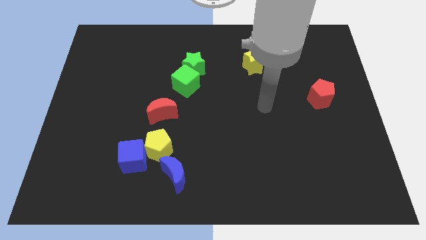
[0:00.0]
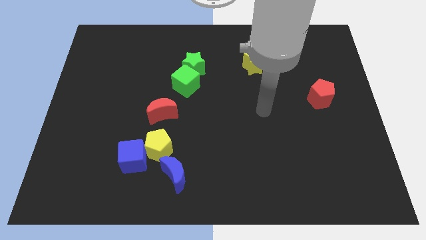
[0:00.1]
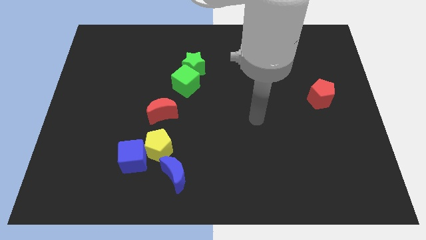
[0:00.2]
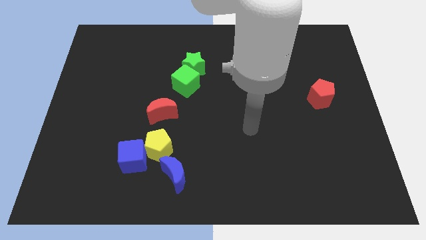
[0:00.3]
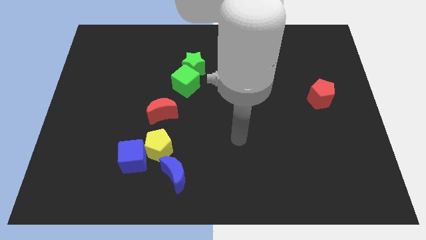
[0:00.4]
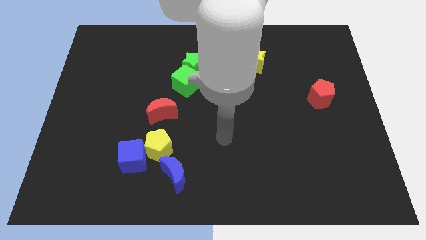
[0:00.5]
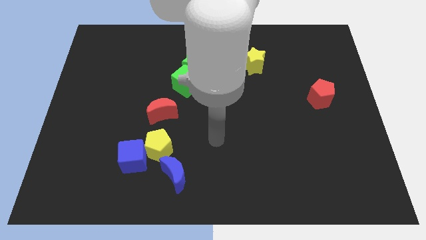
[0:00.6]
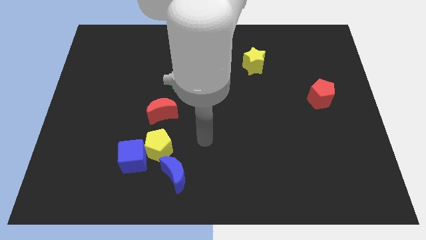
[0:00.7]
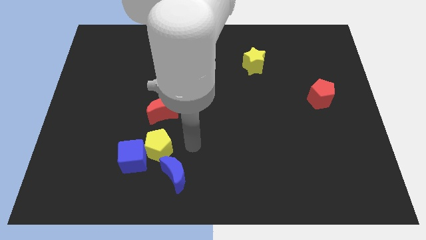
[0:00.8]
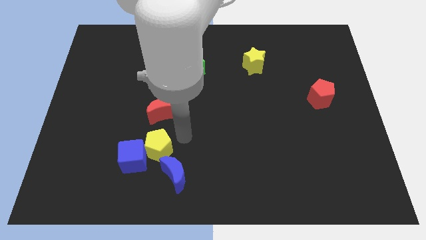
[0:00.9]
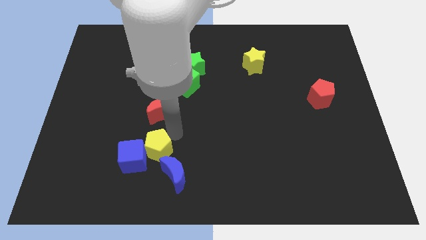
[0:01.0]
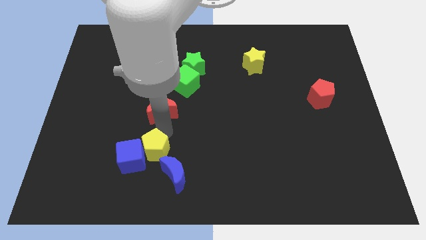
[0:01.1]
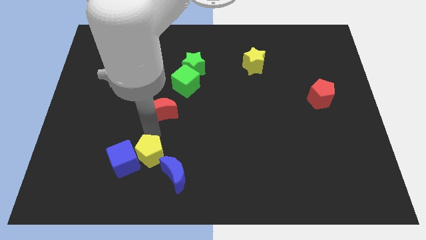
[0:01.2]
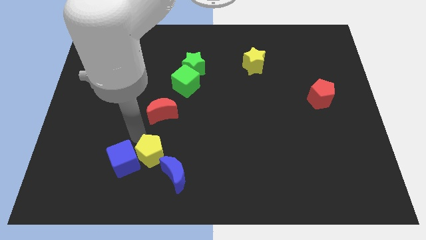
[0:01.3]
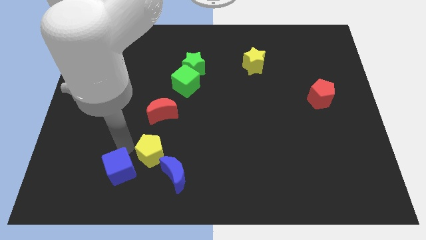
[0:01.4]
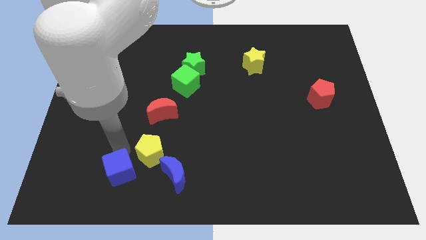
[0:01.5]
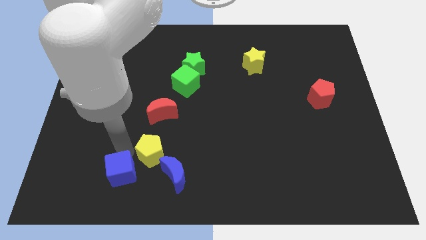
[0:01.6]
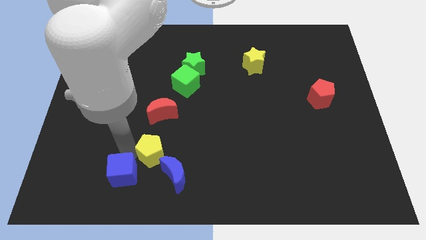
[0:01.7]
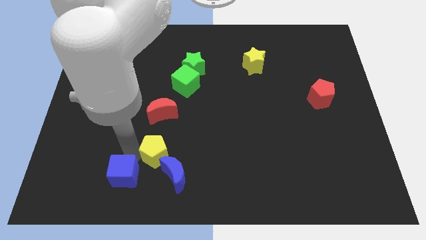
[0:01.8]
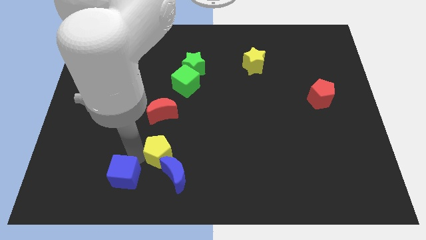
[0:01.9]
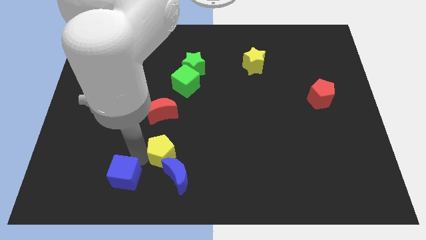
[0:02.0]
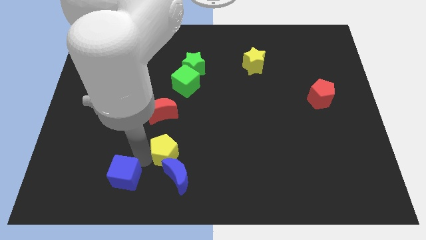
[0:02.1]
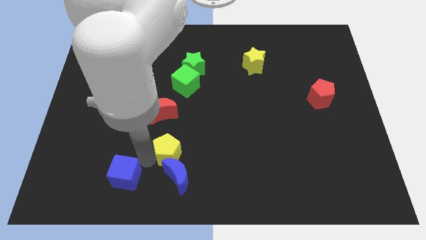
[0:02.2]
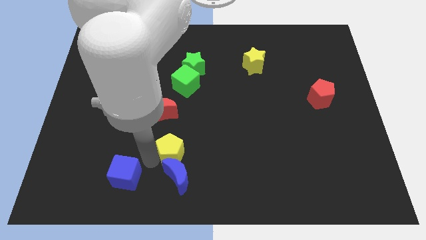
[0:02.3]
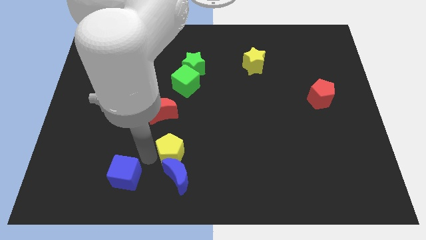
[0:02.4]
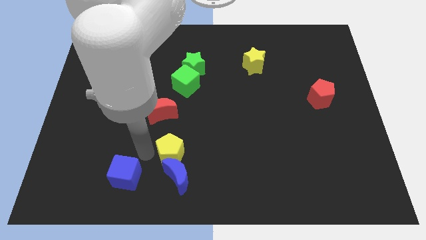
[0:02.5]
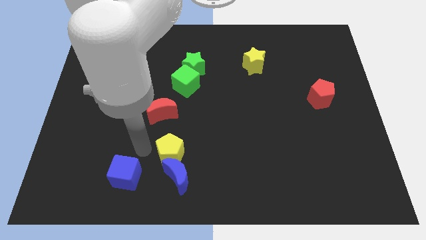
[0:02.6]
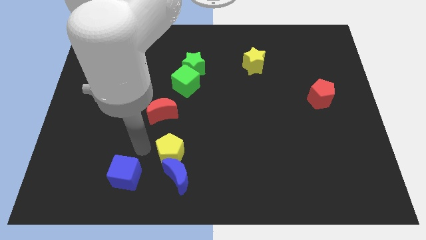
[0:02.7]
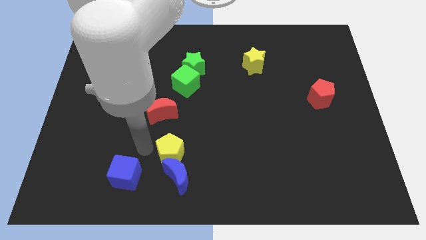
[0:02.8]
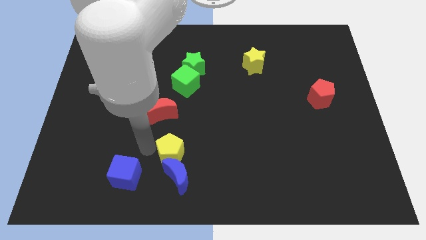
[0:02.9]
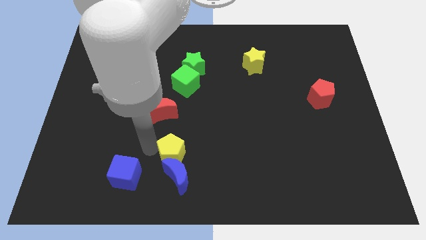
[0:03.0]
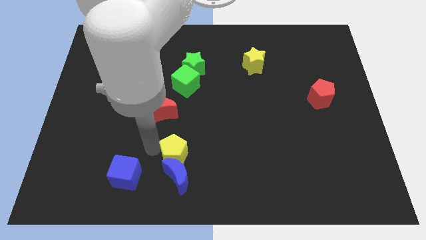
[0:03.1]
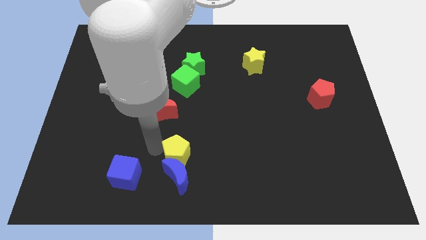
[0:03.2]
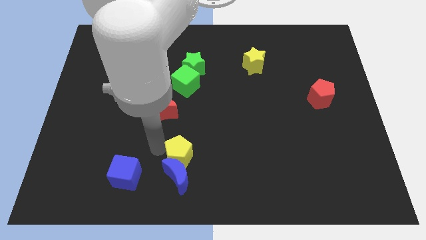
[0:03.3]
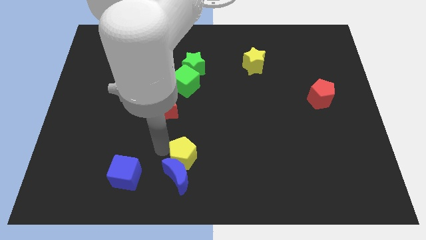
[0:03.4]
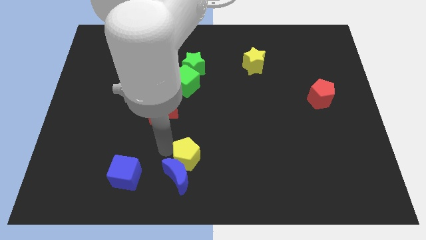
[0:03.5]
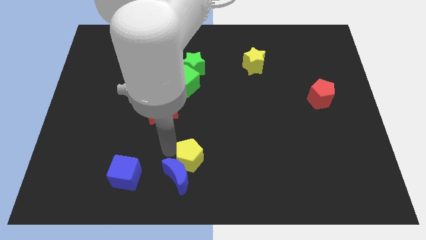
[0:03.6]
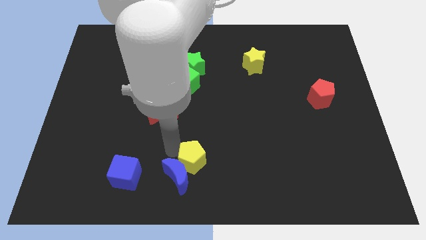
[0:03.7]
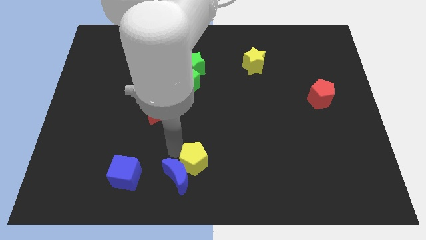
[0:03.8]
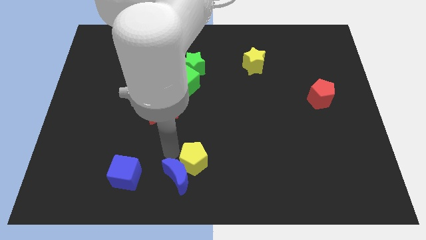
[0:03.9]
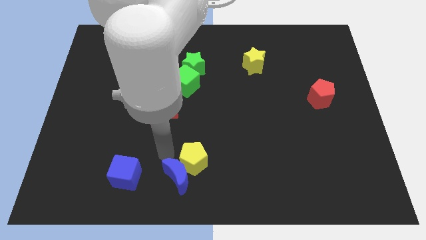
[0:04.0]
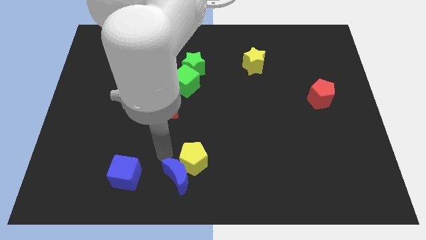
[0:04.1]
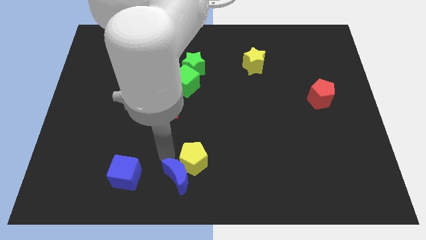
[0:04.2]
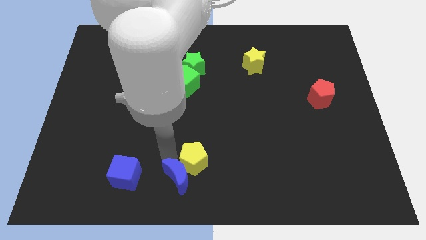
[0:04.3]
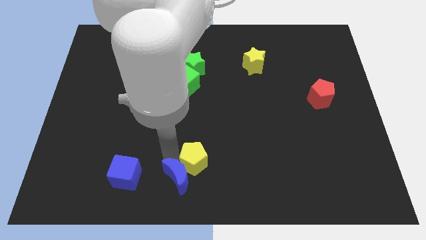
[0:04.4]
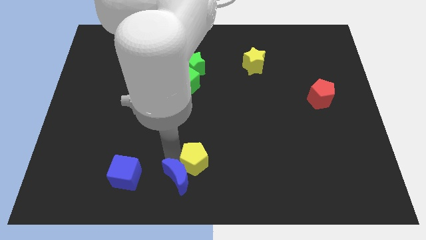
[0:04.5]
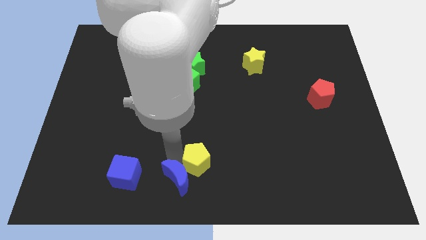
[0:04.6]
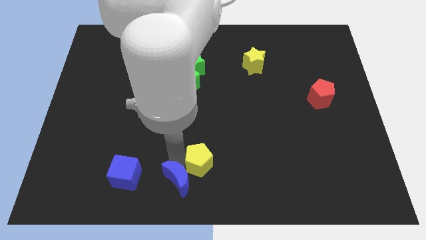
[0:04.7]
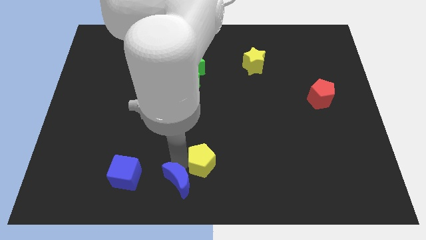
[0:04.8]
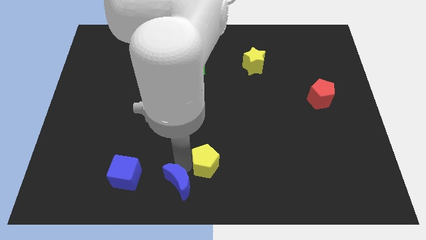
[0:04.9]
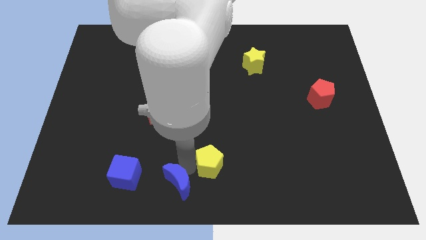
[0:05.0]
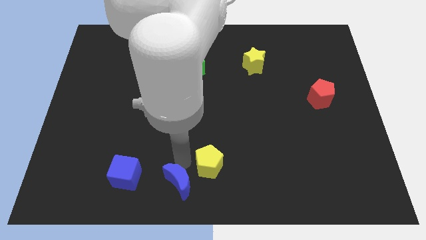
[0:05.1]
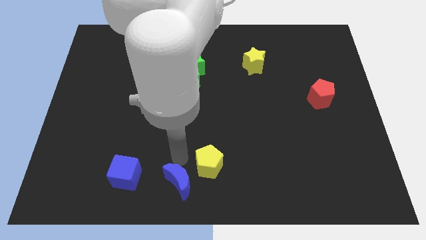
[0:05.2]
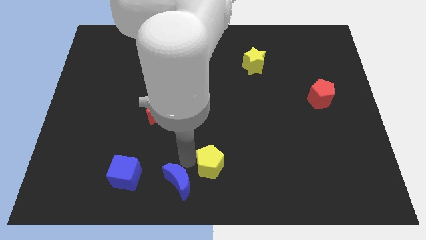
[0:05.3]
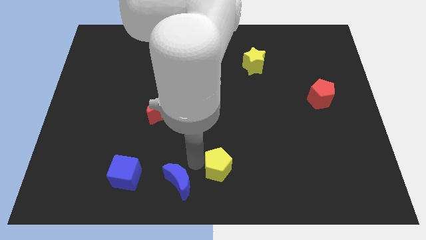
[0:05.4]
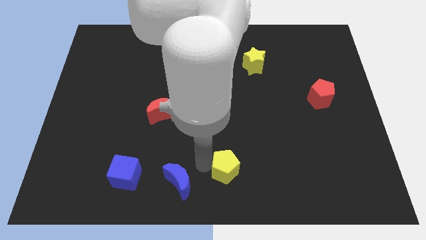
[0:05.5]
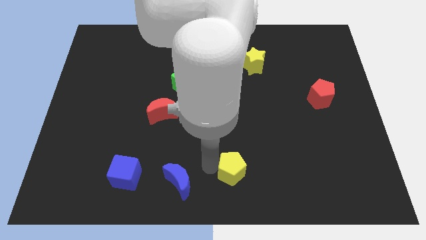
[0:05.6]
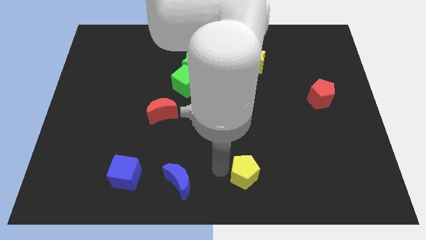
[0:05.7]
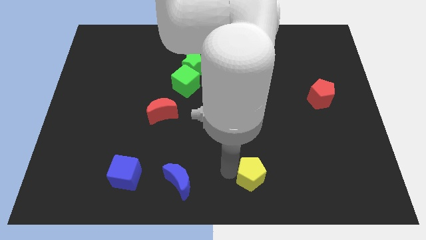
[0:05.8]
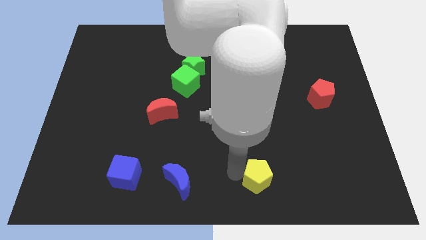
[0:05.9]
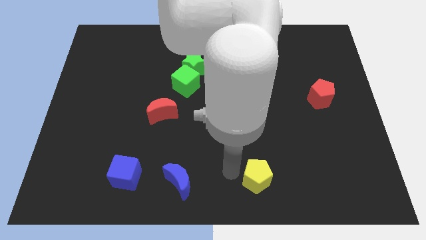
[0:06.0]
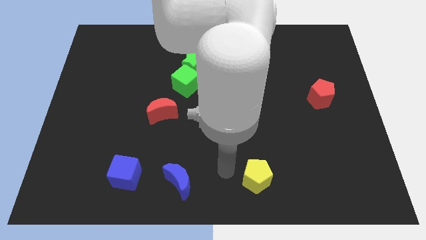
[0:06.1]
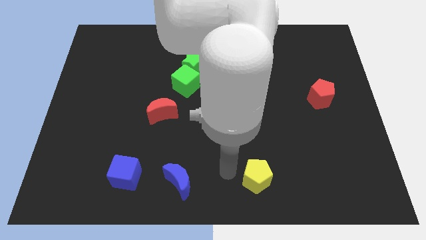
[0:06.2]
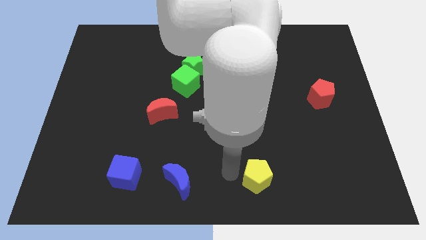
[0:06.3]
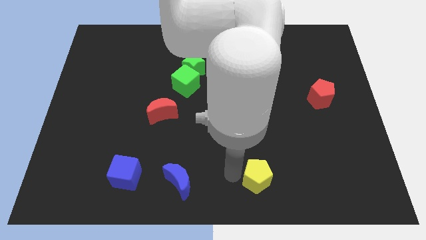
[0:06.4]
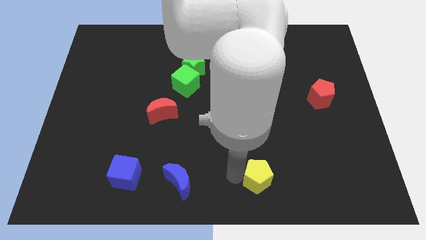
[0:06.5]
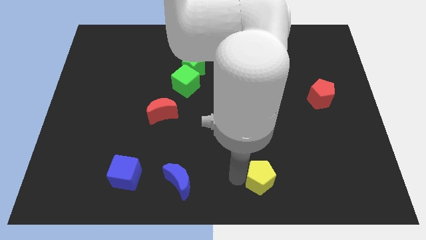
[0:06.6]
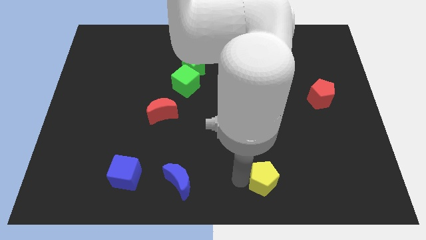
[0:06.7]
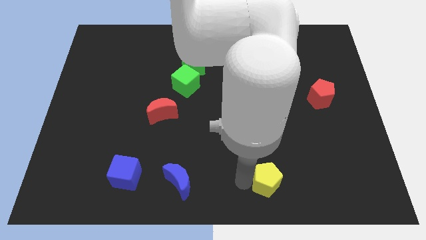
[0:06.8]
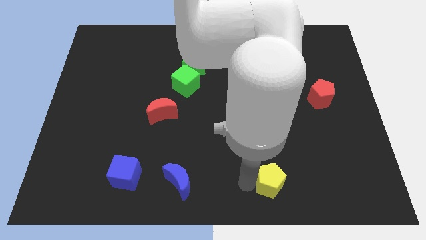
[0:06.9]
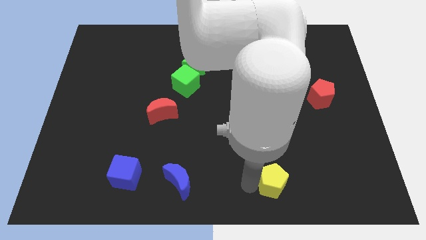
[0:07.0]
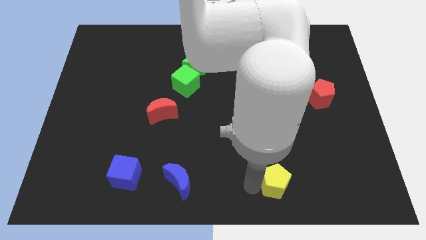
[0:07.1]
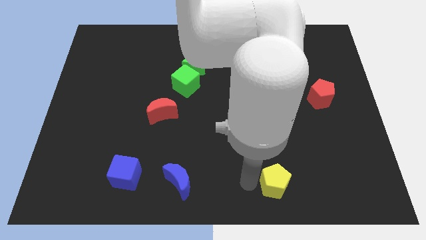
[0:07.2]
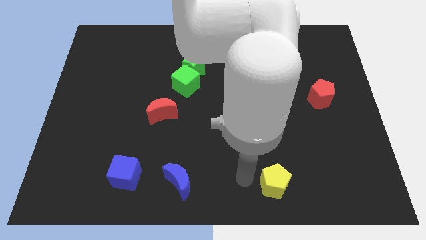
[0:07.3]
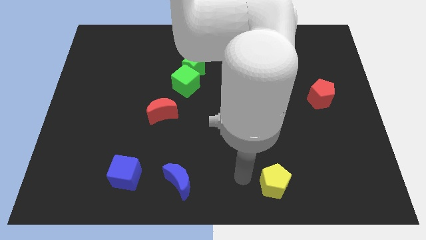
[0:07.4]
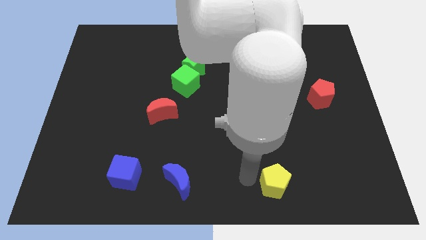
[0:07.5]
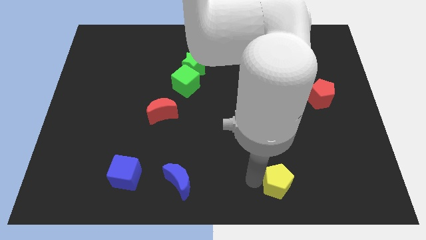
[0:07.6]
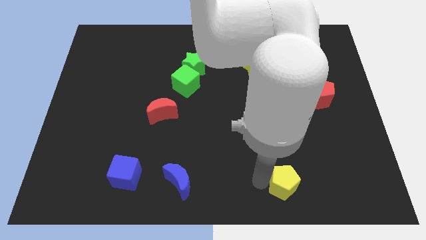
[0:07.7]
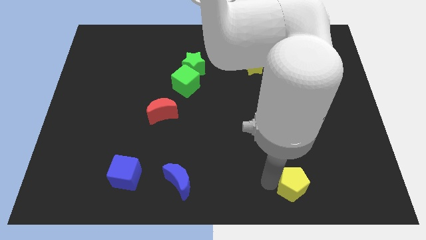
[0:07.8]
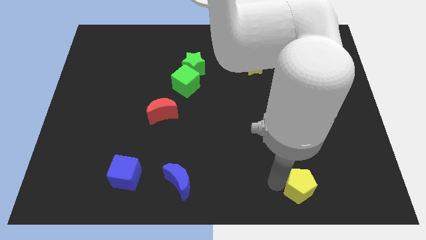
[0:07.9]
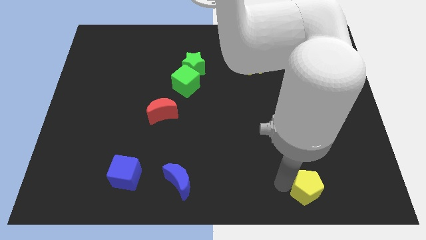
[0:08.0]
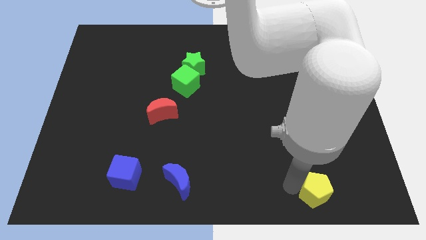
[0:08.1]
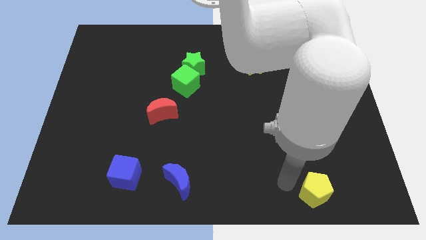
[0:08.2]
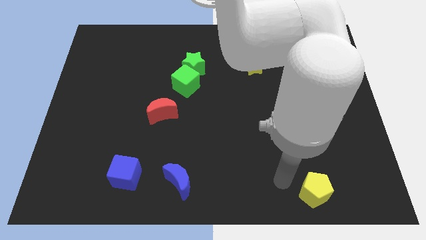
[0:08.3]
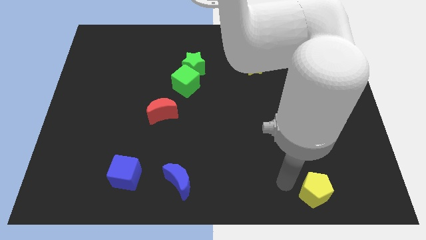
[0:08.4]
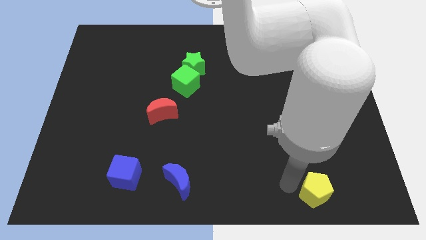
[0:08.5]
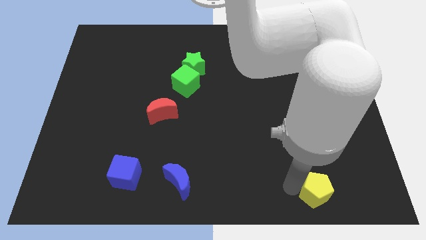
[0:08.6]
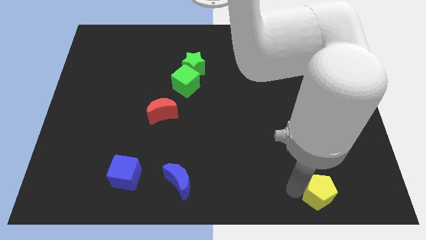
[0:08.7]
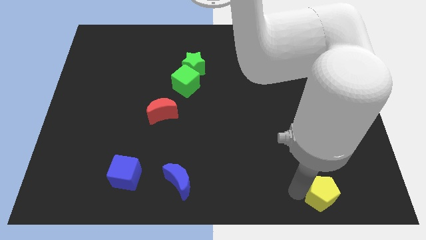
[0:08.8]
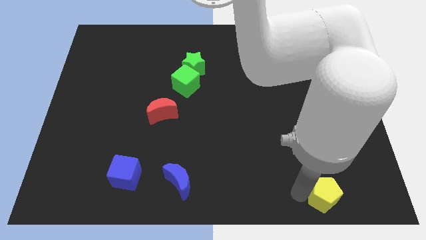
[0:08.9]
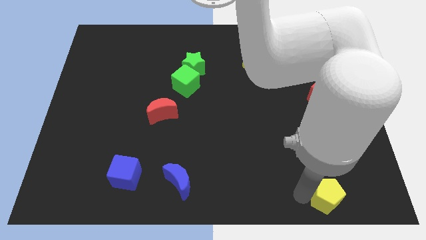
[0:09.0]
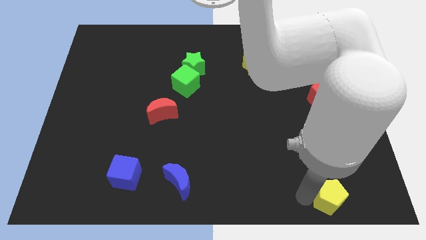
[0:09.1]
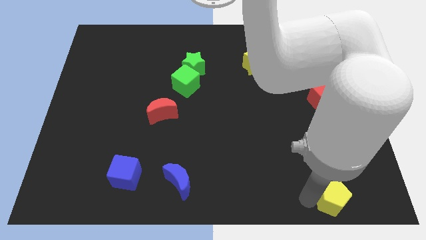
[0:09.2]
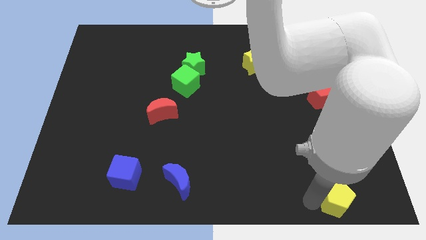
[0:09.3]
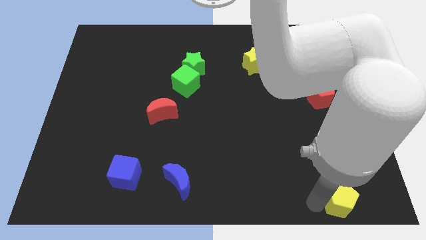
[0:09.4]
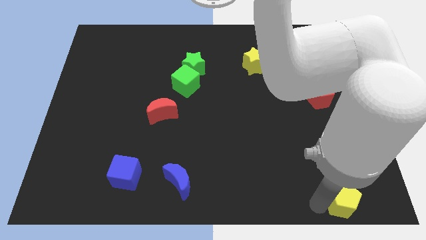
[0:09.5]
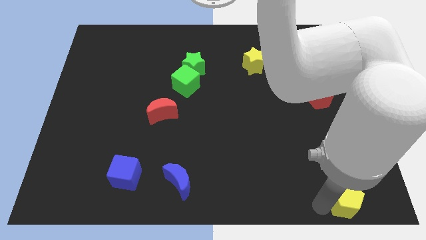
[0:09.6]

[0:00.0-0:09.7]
move the yellow pentagon to the bottom right corner
